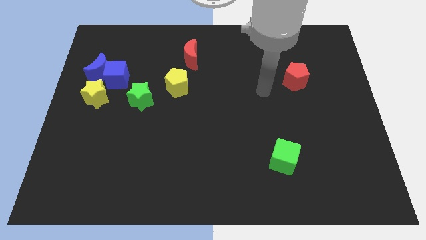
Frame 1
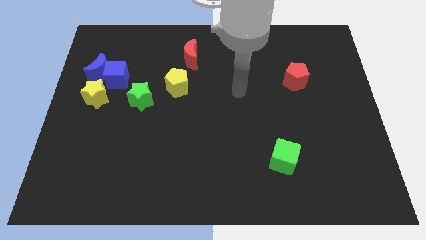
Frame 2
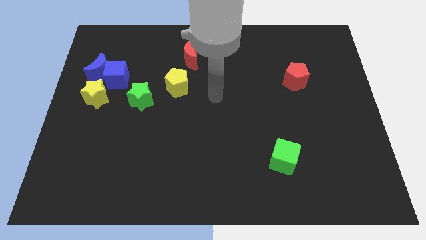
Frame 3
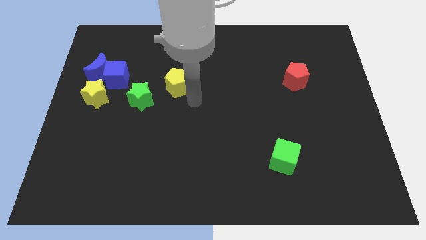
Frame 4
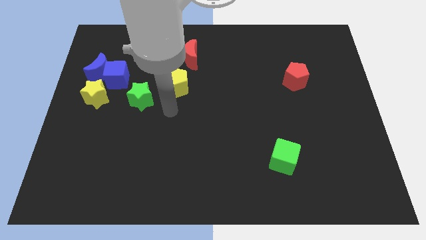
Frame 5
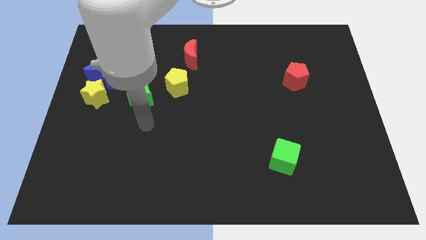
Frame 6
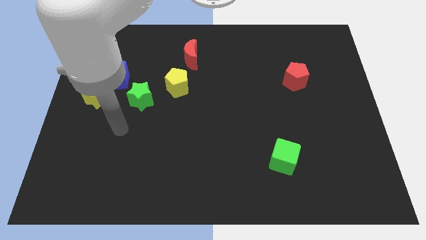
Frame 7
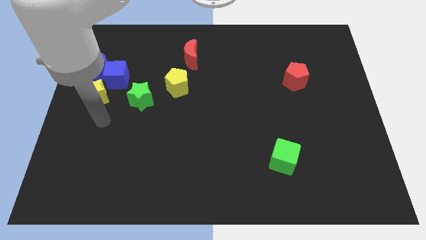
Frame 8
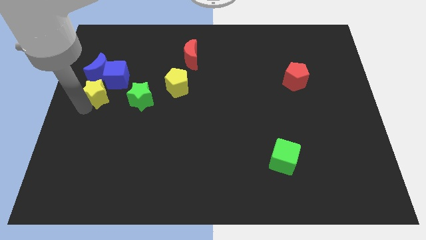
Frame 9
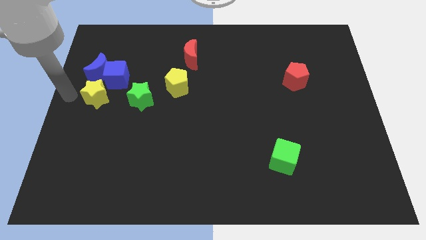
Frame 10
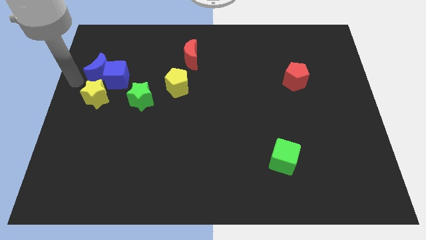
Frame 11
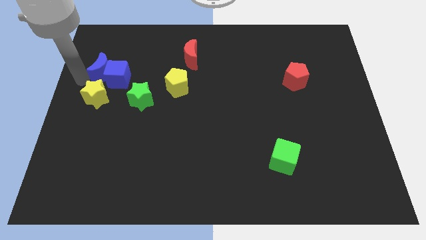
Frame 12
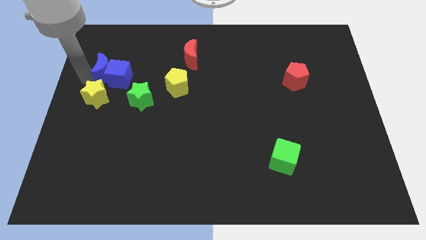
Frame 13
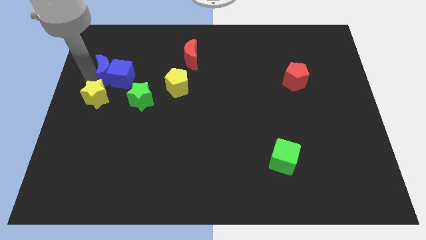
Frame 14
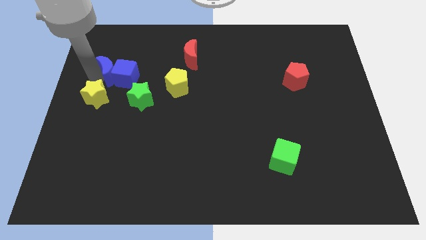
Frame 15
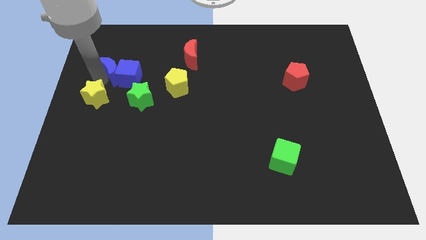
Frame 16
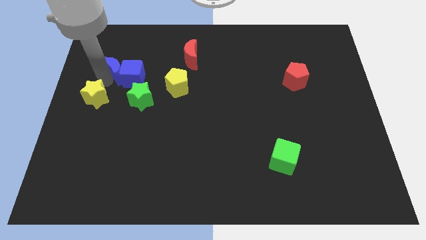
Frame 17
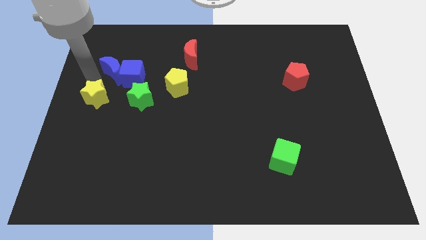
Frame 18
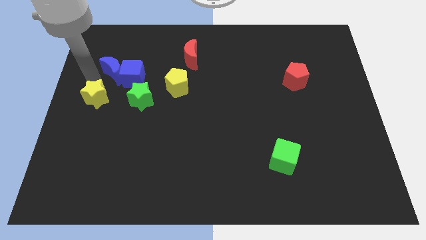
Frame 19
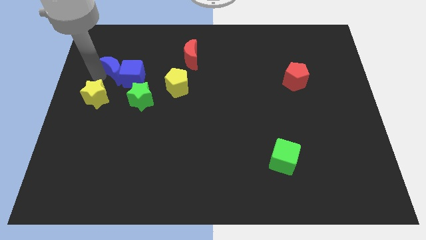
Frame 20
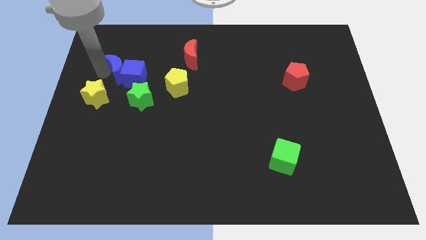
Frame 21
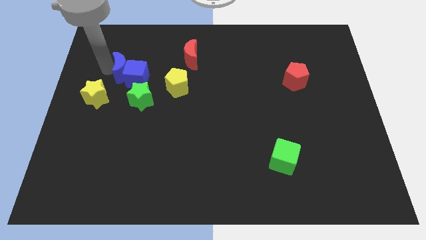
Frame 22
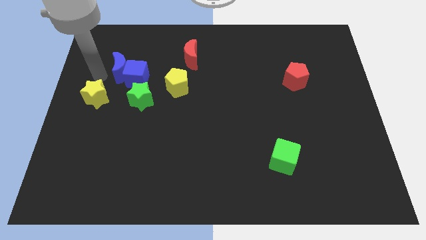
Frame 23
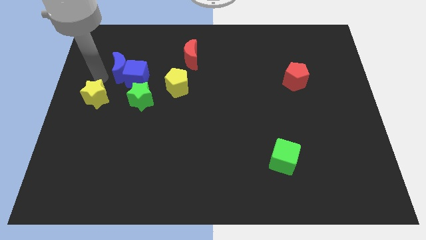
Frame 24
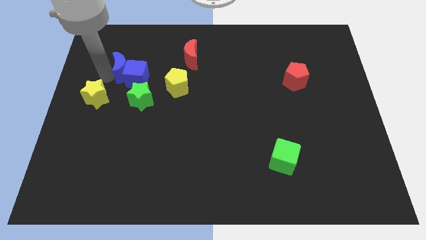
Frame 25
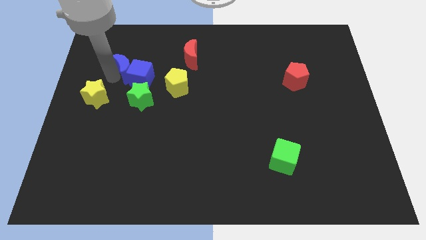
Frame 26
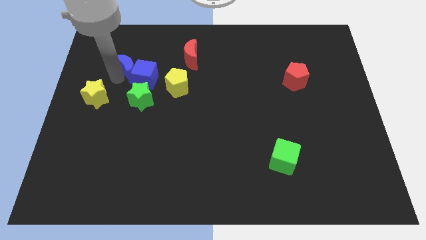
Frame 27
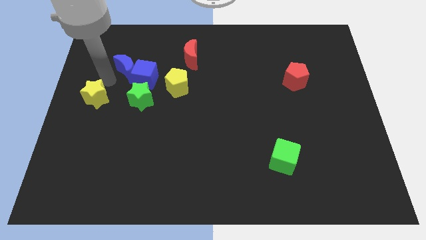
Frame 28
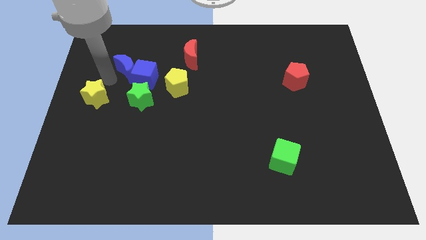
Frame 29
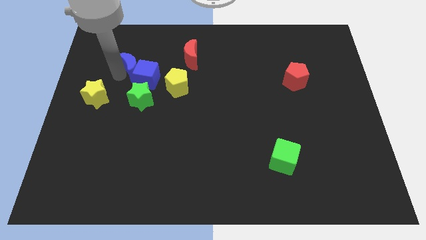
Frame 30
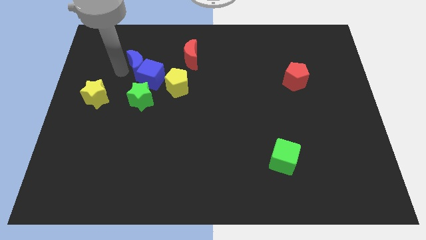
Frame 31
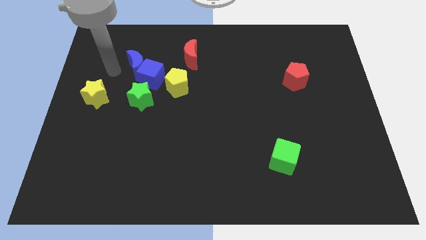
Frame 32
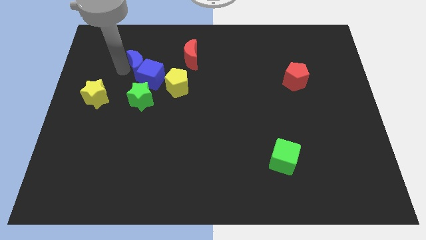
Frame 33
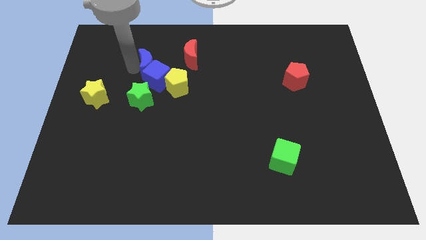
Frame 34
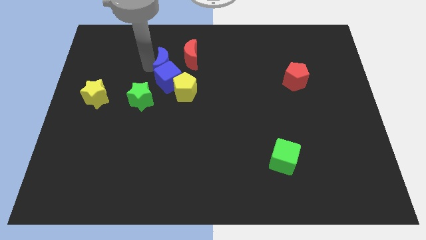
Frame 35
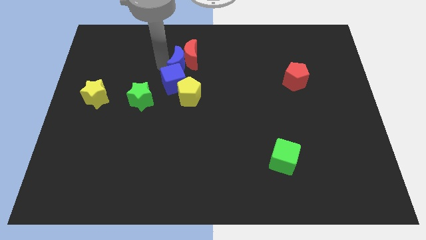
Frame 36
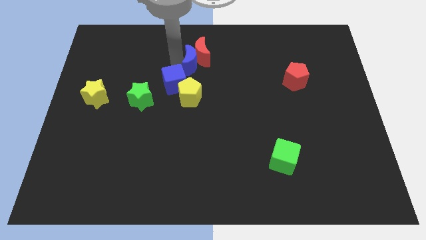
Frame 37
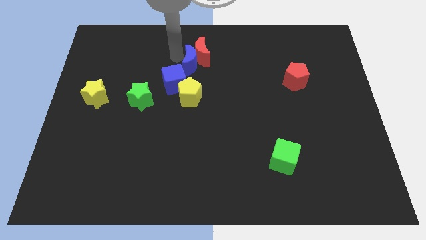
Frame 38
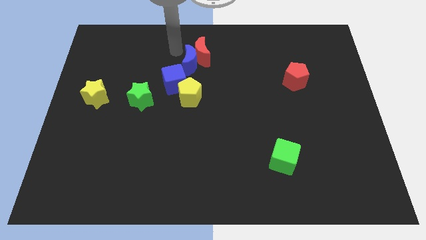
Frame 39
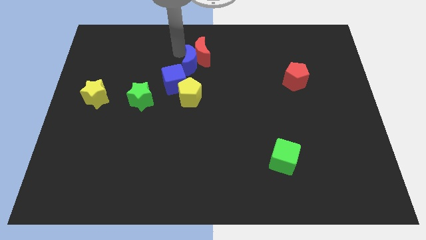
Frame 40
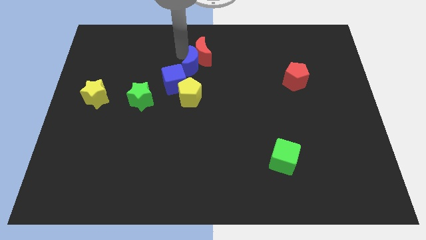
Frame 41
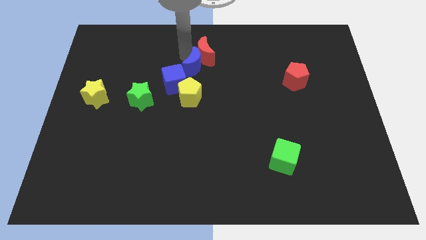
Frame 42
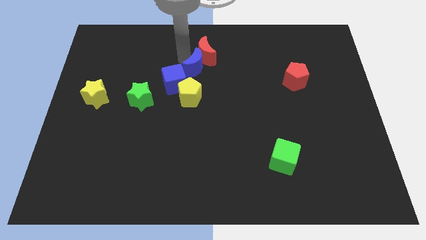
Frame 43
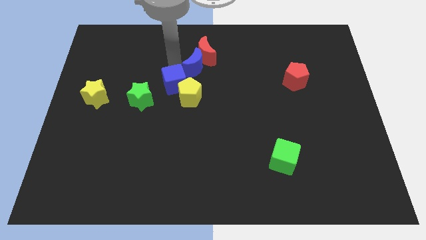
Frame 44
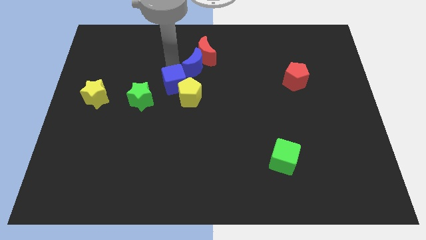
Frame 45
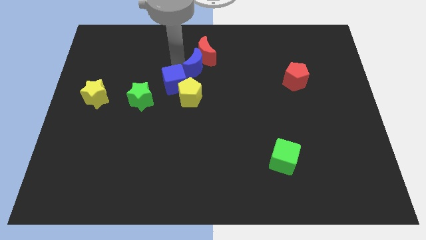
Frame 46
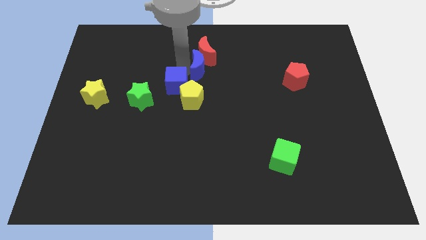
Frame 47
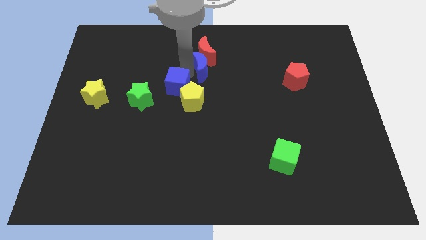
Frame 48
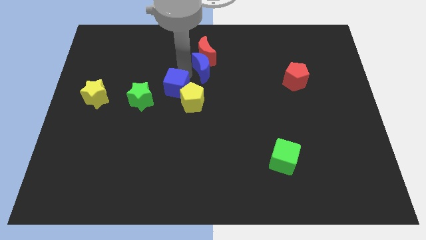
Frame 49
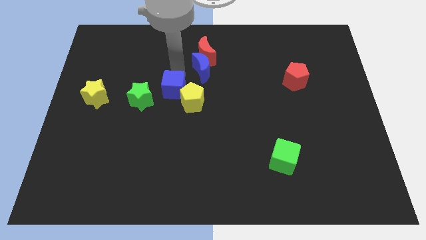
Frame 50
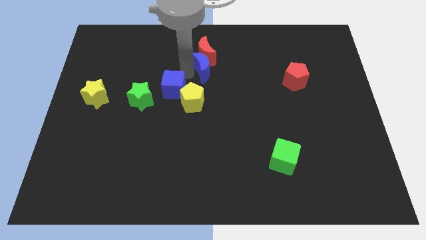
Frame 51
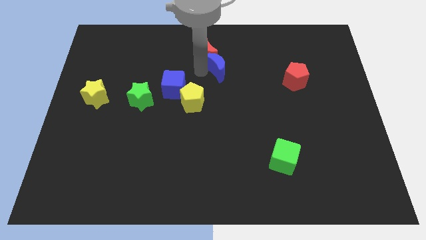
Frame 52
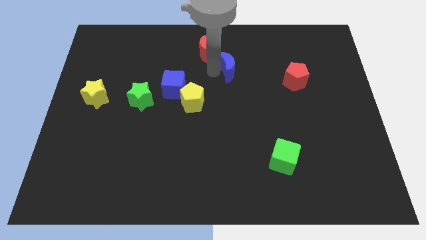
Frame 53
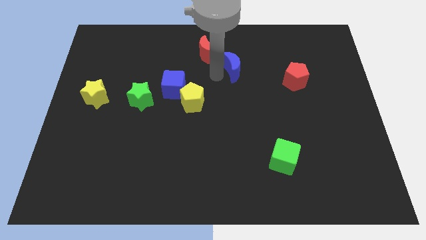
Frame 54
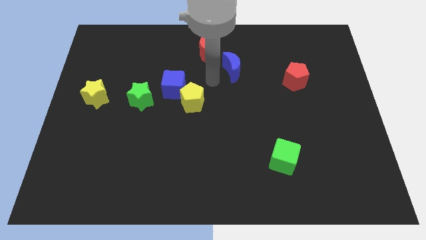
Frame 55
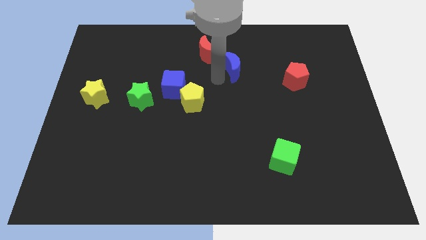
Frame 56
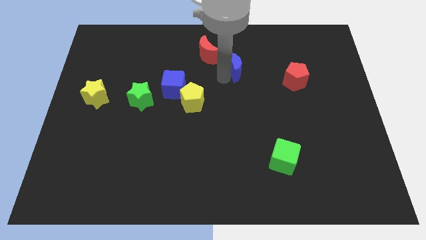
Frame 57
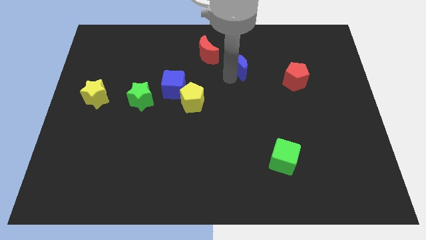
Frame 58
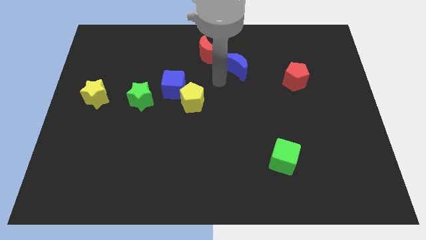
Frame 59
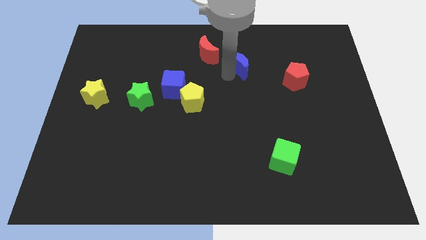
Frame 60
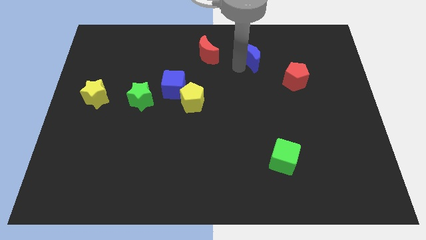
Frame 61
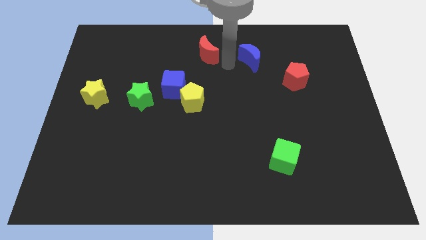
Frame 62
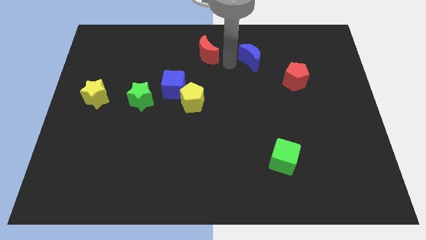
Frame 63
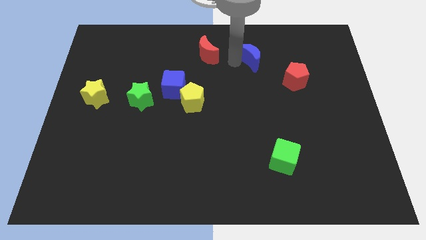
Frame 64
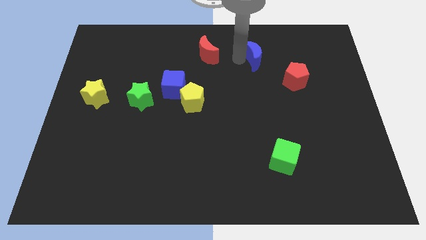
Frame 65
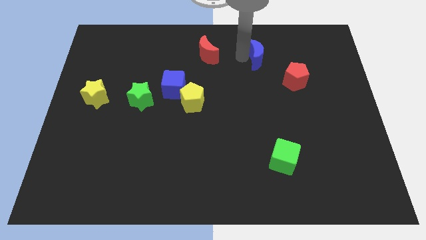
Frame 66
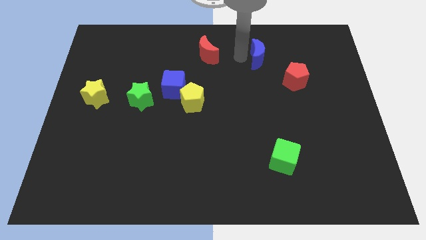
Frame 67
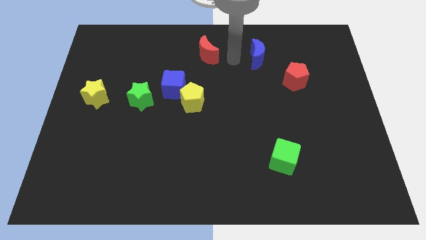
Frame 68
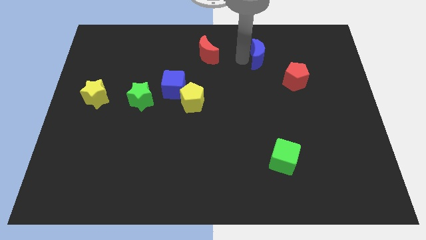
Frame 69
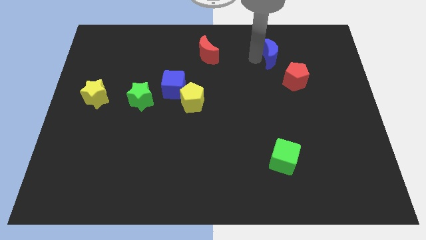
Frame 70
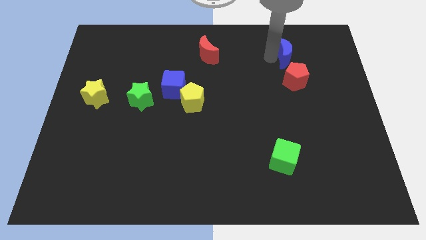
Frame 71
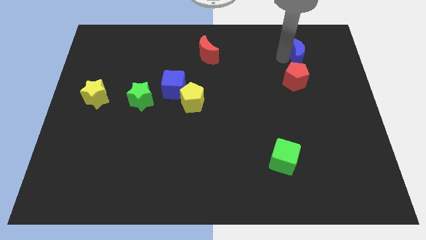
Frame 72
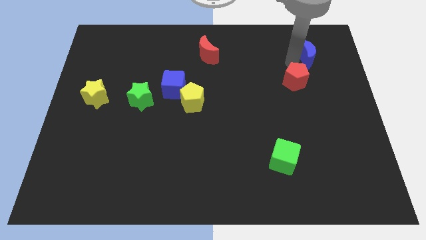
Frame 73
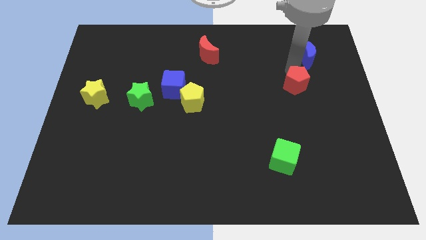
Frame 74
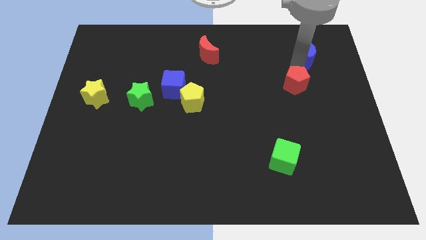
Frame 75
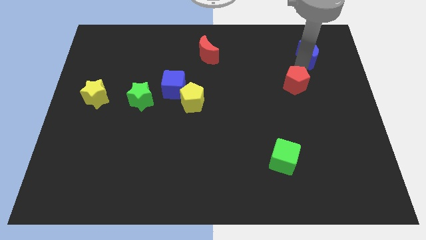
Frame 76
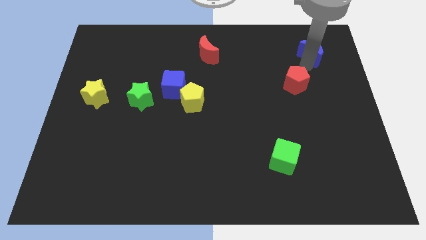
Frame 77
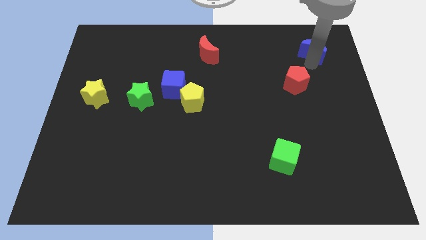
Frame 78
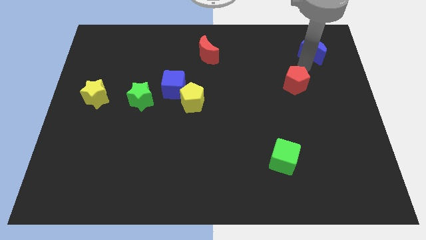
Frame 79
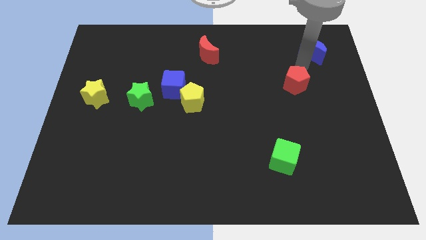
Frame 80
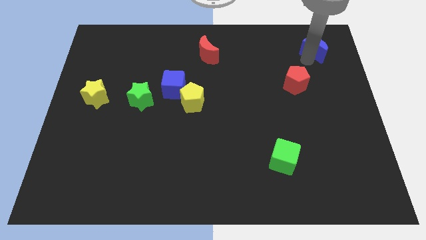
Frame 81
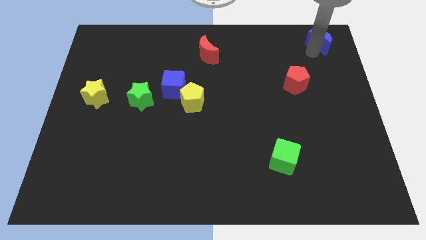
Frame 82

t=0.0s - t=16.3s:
slide the blue moon to the top right of the board
